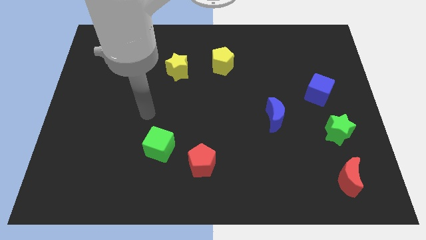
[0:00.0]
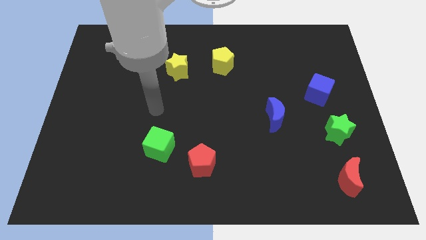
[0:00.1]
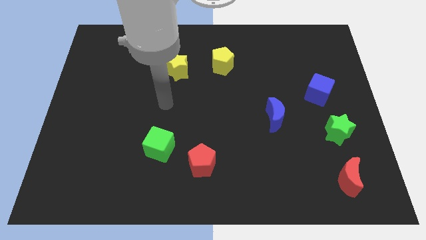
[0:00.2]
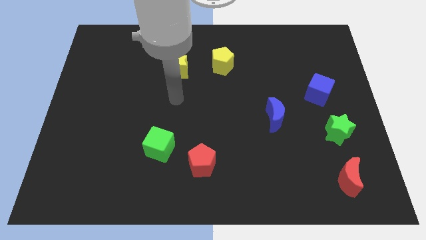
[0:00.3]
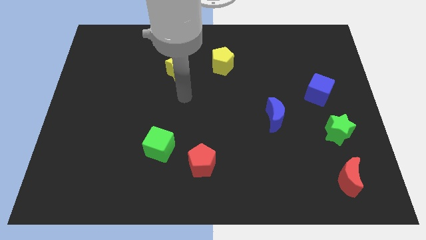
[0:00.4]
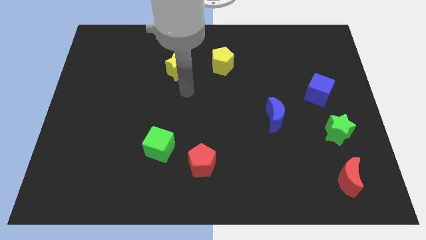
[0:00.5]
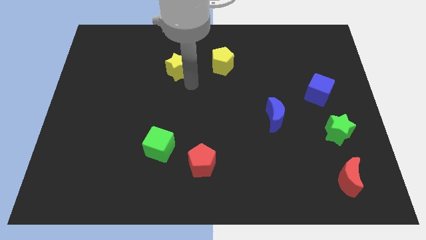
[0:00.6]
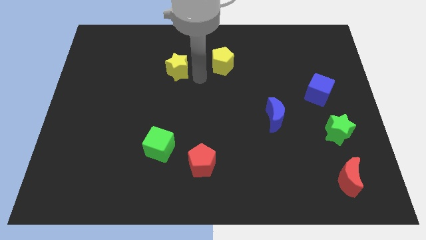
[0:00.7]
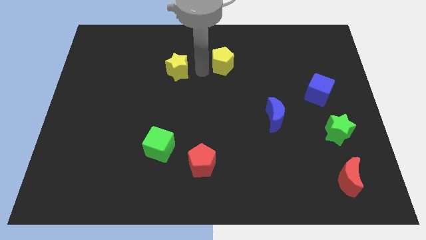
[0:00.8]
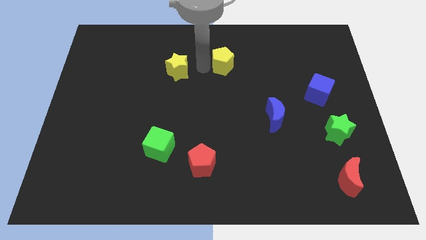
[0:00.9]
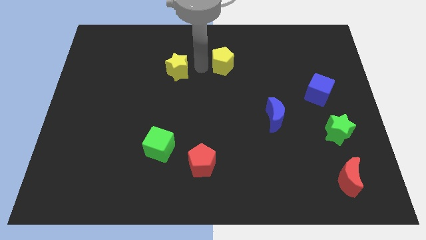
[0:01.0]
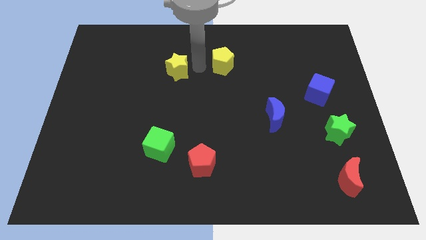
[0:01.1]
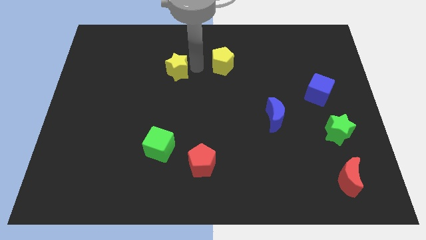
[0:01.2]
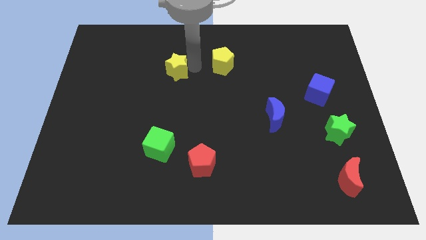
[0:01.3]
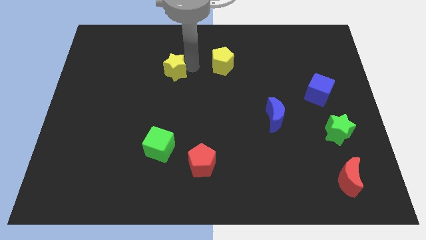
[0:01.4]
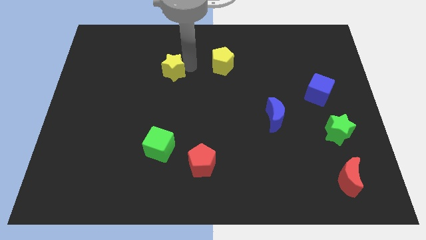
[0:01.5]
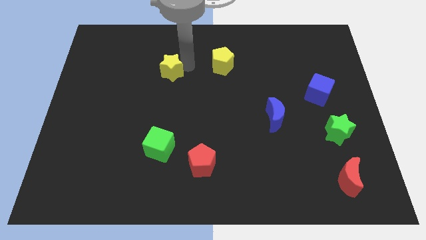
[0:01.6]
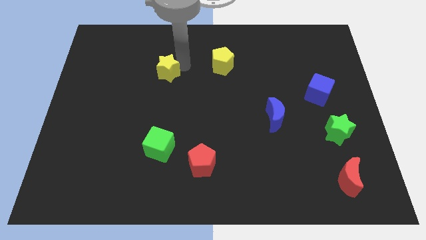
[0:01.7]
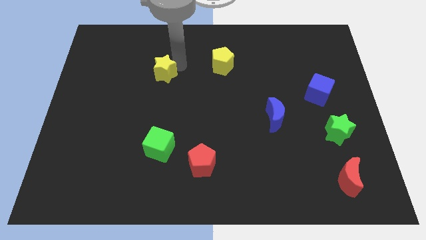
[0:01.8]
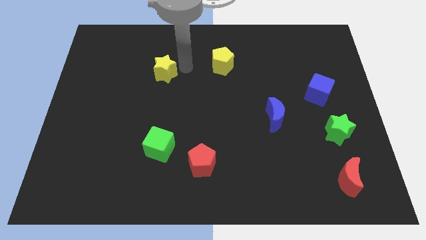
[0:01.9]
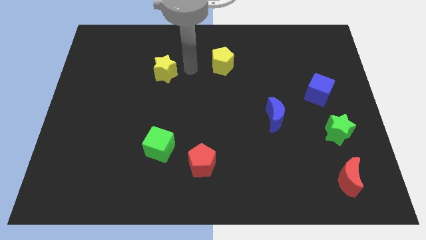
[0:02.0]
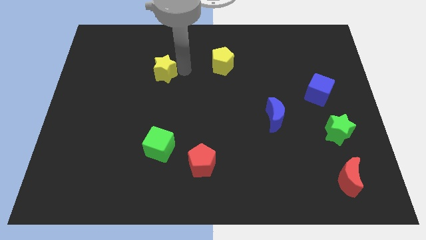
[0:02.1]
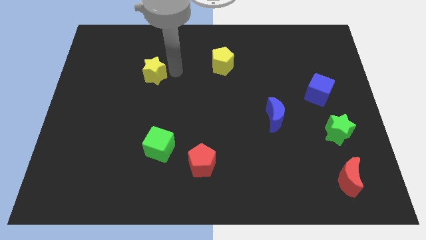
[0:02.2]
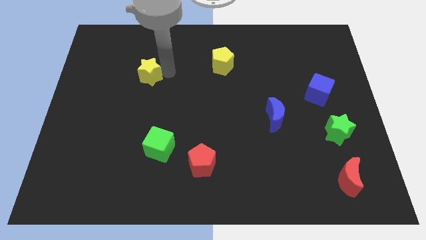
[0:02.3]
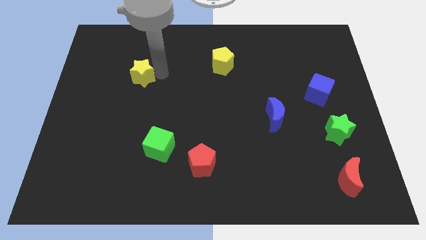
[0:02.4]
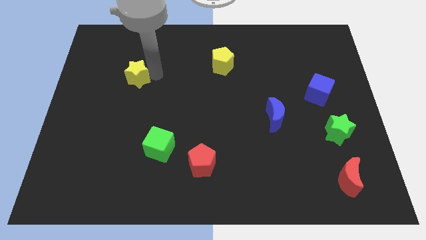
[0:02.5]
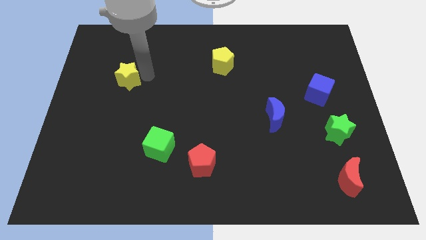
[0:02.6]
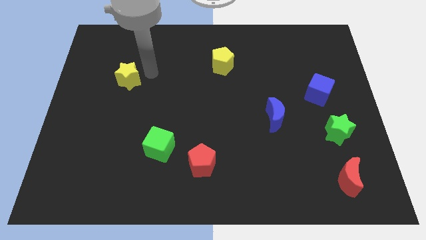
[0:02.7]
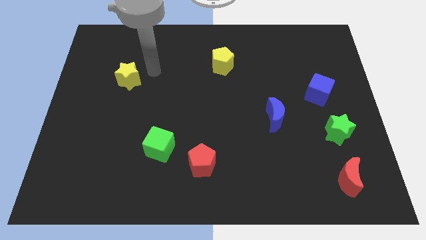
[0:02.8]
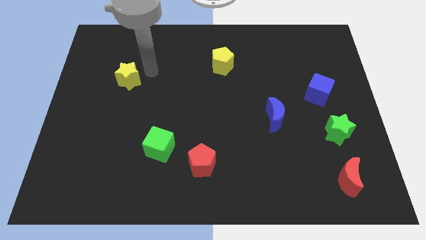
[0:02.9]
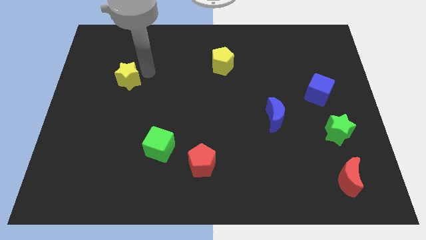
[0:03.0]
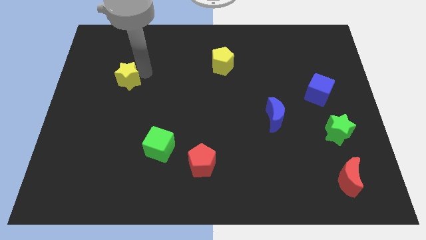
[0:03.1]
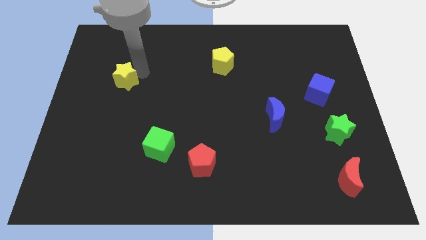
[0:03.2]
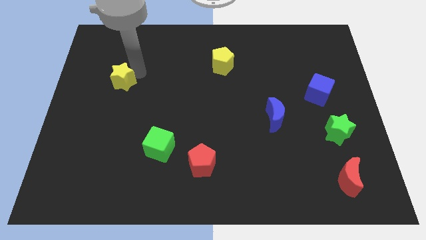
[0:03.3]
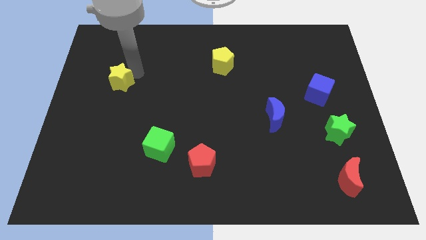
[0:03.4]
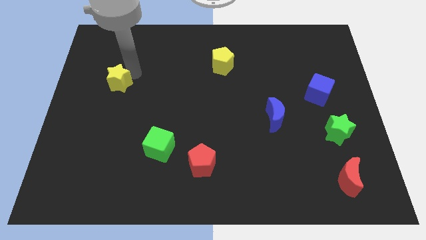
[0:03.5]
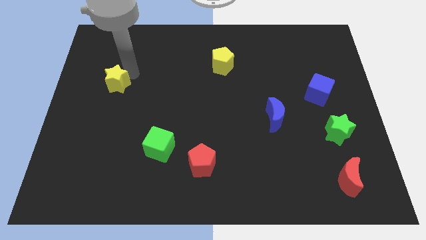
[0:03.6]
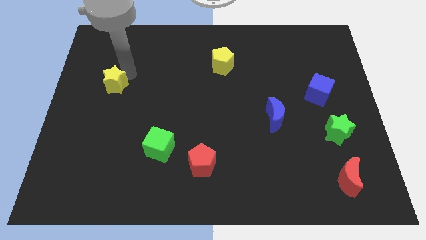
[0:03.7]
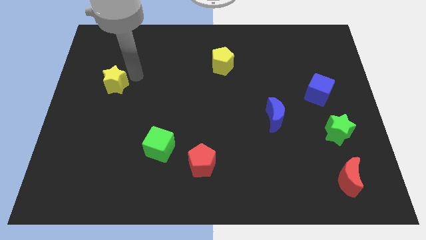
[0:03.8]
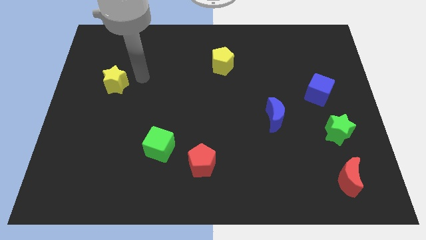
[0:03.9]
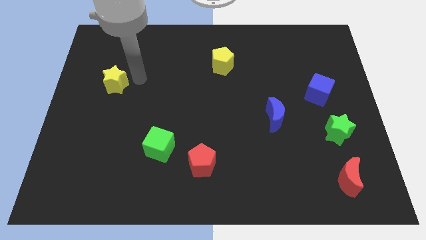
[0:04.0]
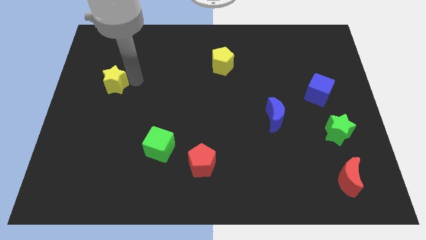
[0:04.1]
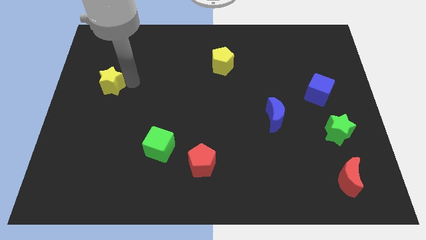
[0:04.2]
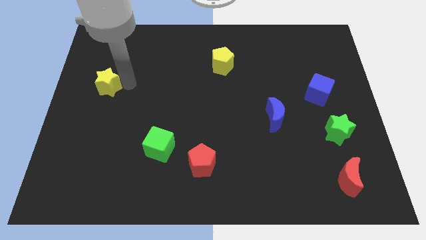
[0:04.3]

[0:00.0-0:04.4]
slide the yellow star to the center left

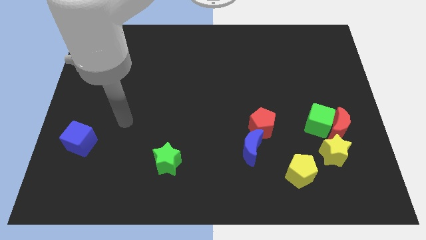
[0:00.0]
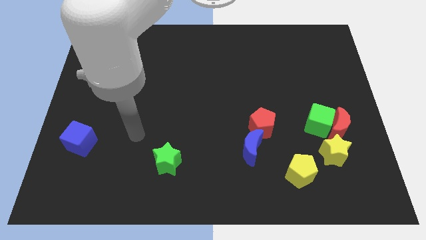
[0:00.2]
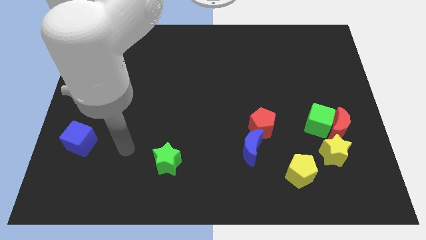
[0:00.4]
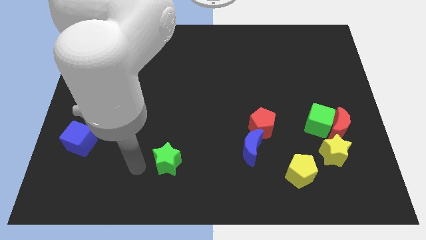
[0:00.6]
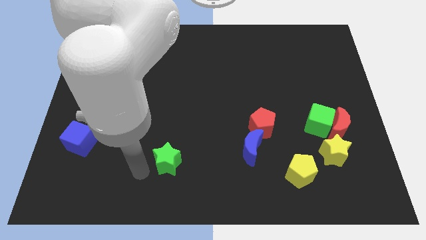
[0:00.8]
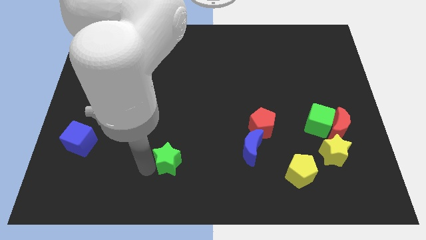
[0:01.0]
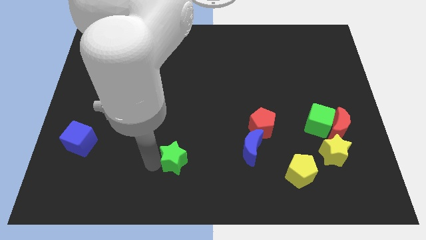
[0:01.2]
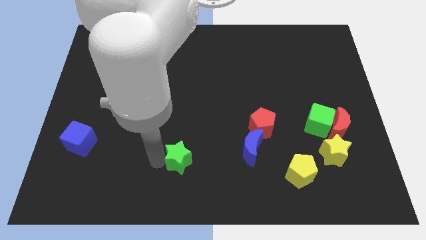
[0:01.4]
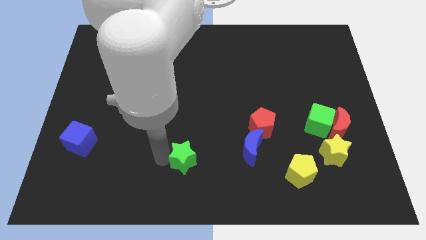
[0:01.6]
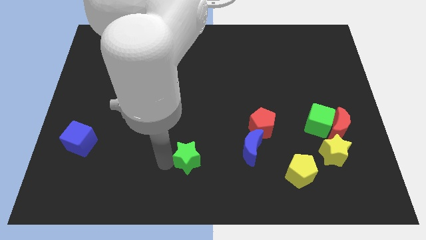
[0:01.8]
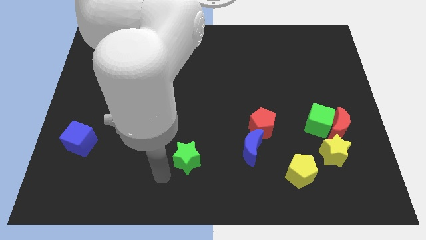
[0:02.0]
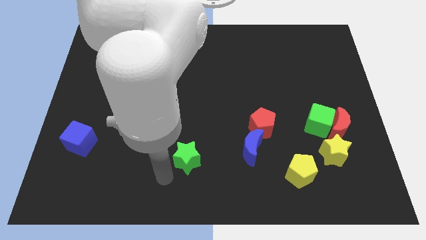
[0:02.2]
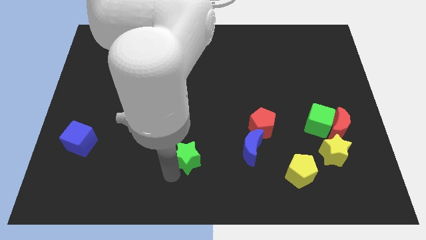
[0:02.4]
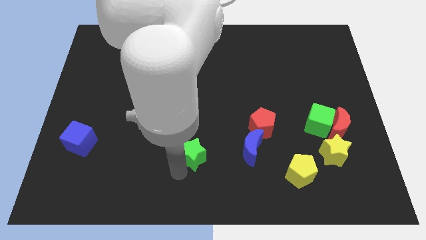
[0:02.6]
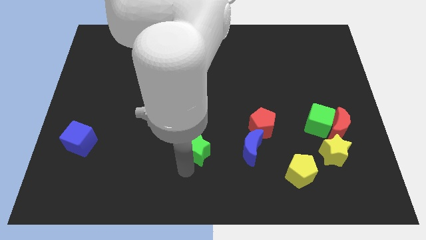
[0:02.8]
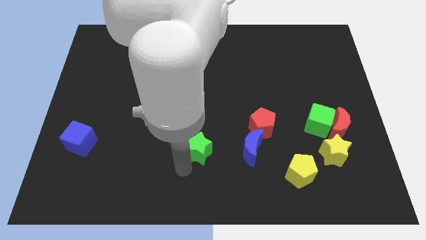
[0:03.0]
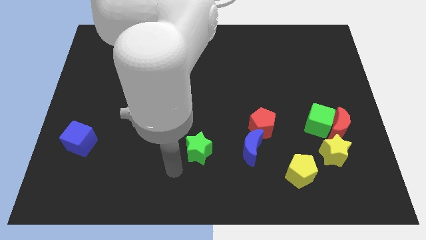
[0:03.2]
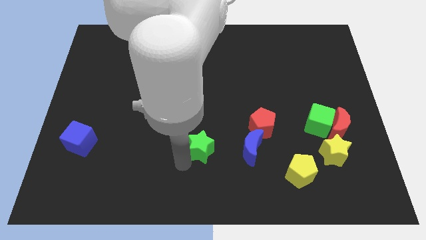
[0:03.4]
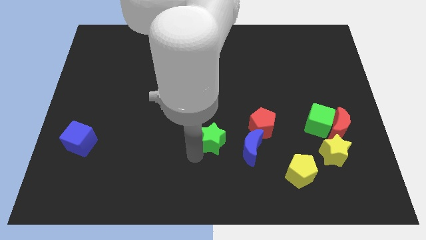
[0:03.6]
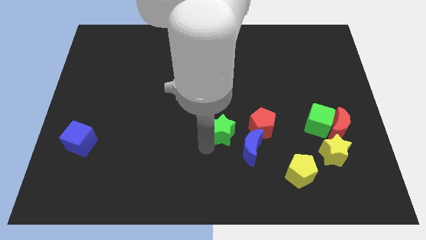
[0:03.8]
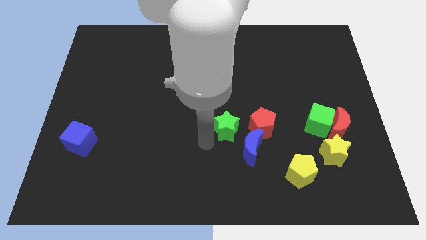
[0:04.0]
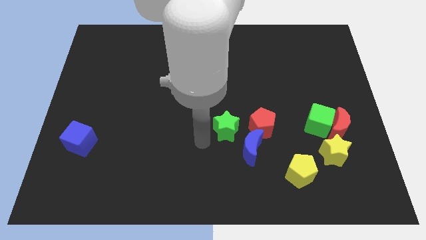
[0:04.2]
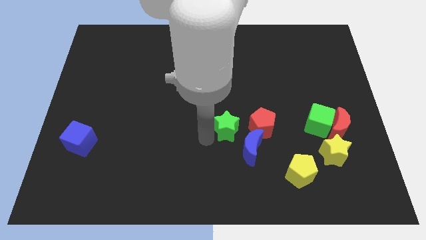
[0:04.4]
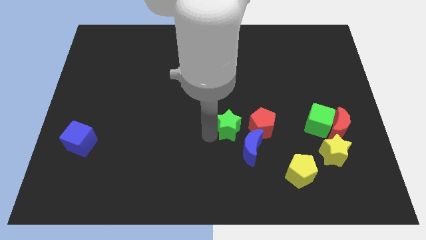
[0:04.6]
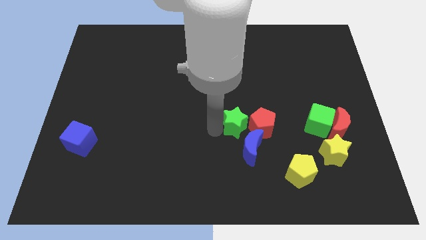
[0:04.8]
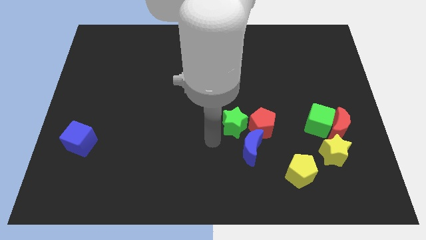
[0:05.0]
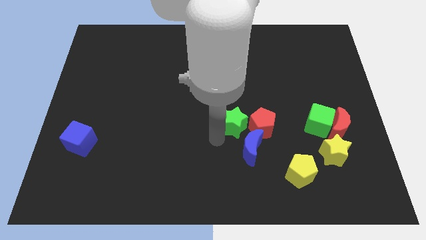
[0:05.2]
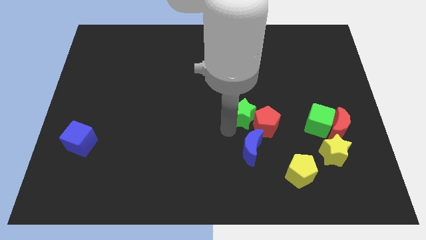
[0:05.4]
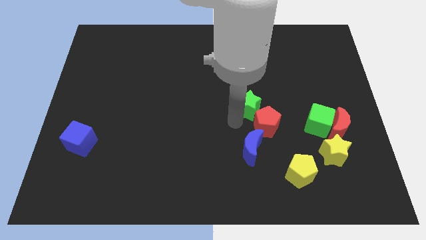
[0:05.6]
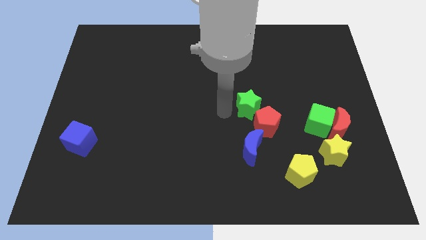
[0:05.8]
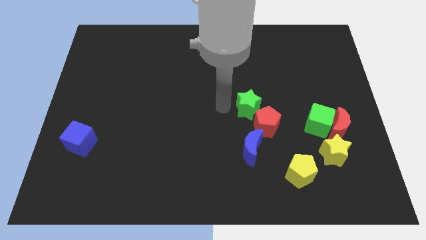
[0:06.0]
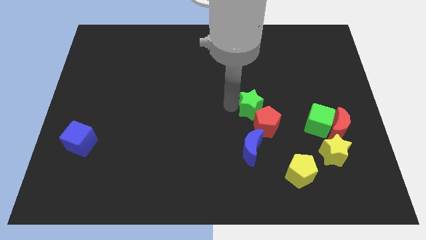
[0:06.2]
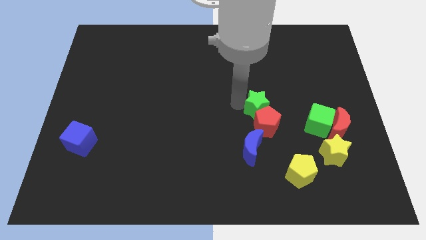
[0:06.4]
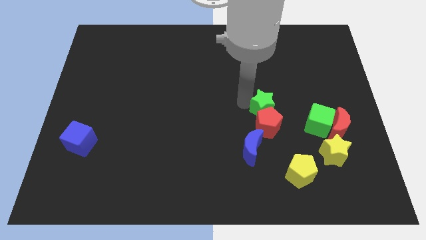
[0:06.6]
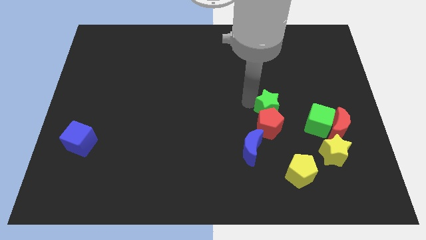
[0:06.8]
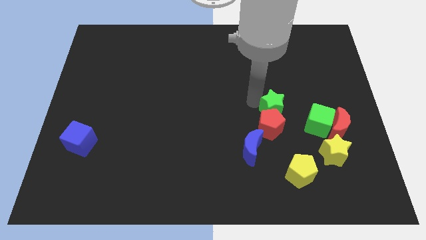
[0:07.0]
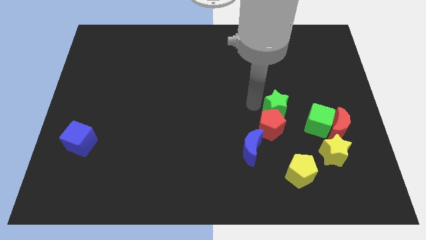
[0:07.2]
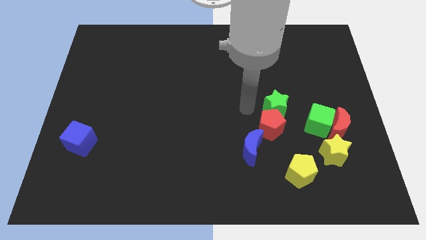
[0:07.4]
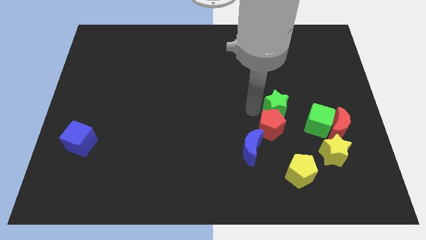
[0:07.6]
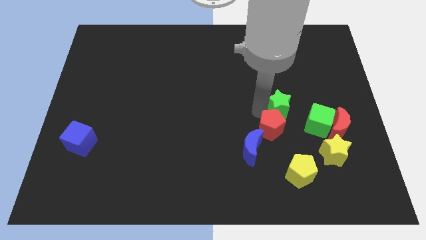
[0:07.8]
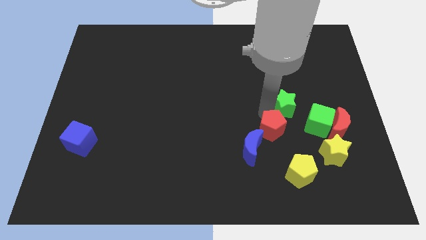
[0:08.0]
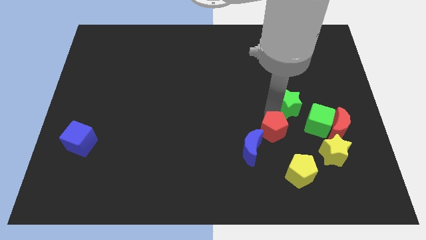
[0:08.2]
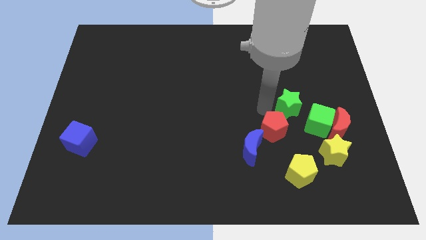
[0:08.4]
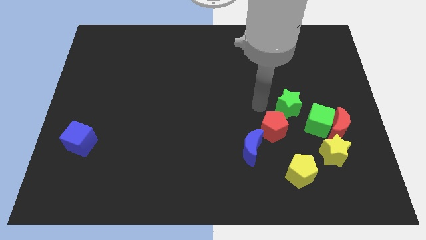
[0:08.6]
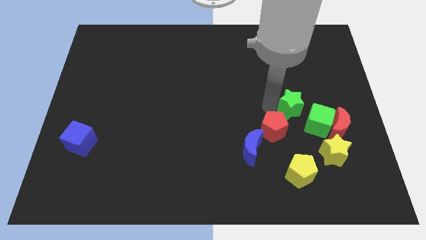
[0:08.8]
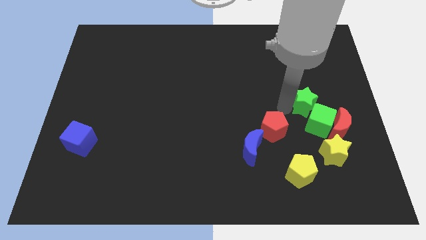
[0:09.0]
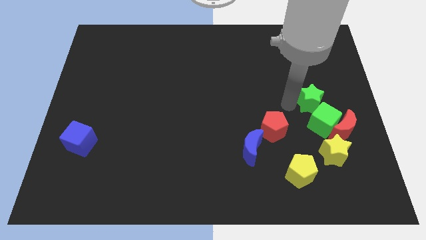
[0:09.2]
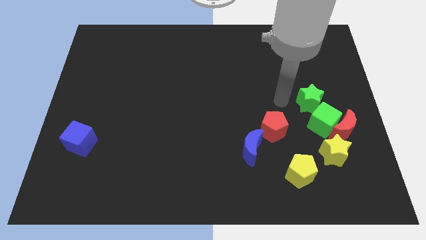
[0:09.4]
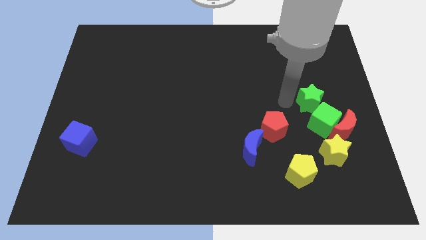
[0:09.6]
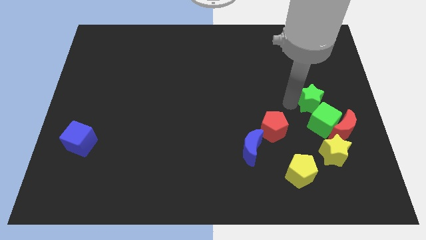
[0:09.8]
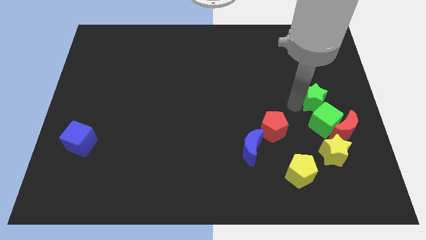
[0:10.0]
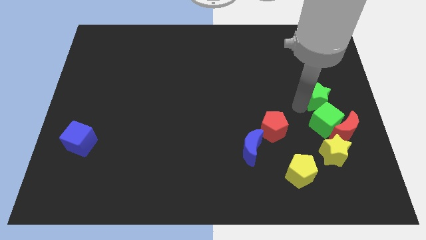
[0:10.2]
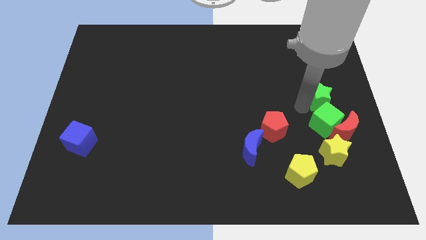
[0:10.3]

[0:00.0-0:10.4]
slide the green star to the center right
